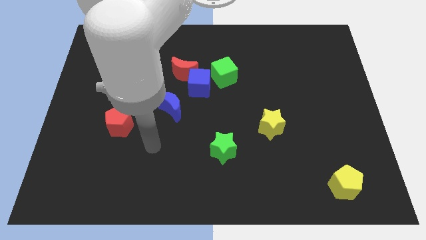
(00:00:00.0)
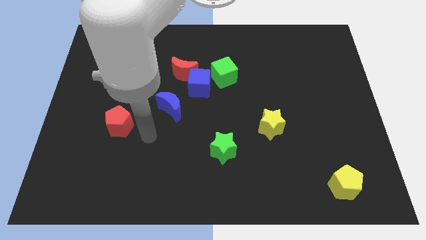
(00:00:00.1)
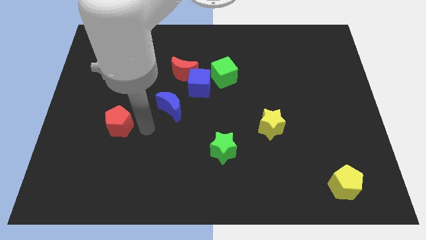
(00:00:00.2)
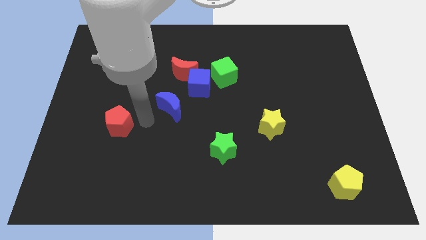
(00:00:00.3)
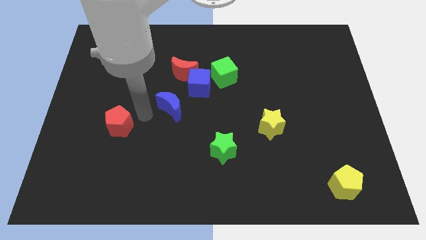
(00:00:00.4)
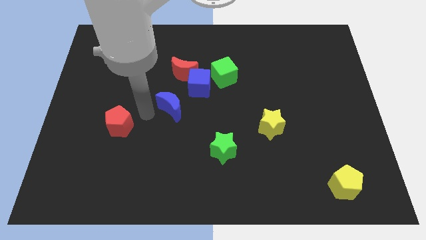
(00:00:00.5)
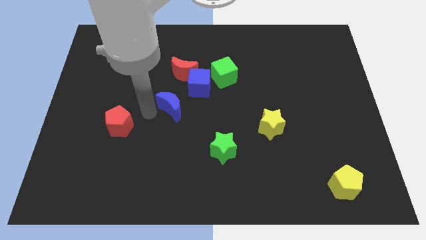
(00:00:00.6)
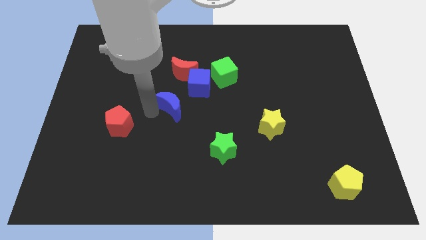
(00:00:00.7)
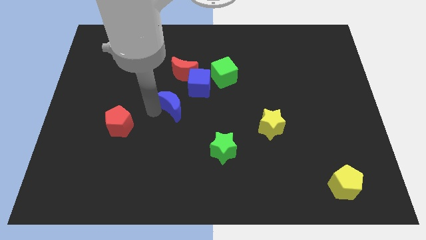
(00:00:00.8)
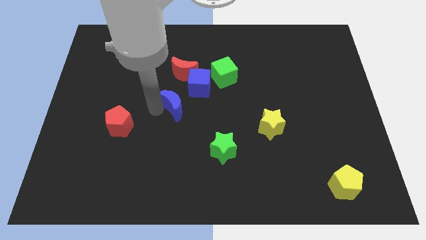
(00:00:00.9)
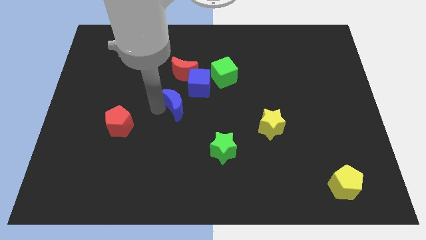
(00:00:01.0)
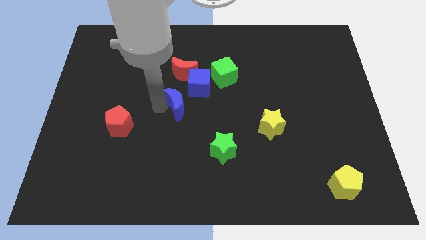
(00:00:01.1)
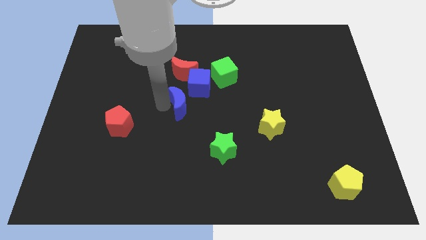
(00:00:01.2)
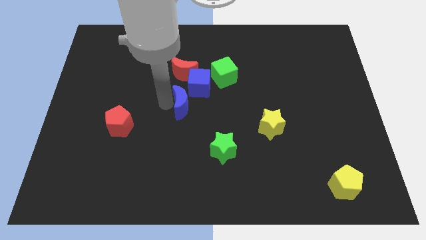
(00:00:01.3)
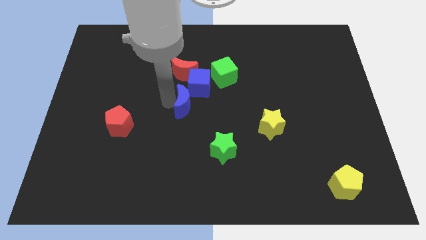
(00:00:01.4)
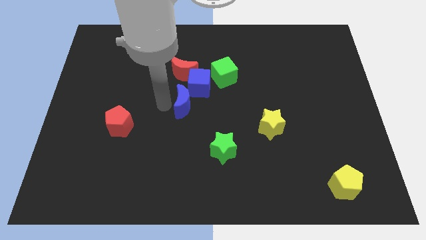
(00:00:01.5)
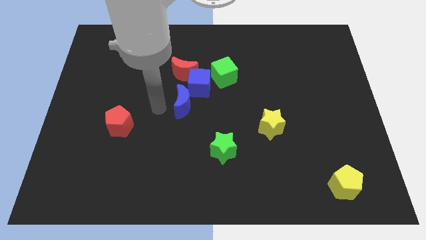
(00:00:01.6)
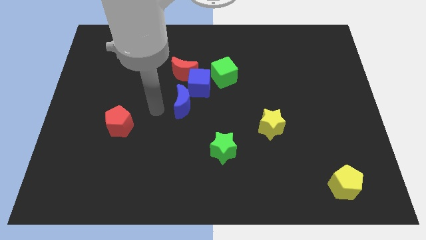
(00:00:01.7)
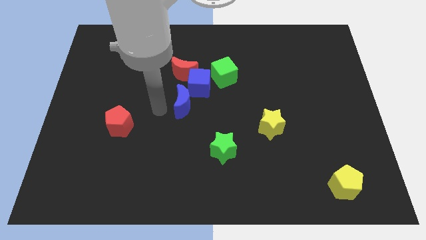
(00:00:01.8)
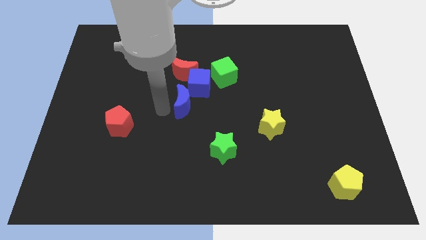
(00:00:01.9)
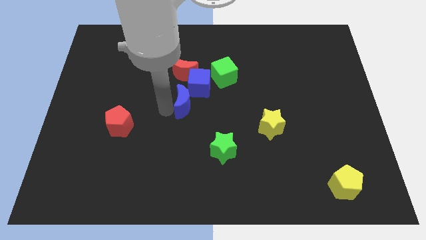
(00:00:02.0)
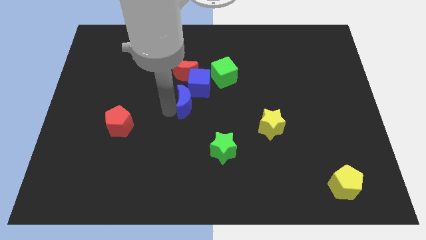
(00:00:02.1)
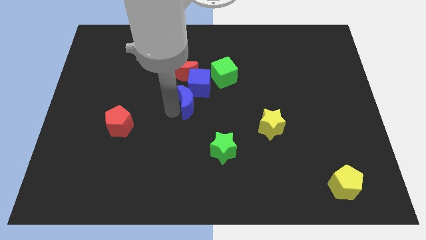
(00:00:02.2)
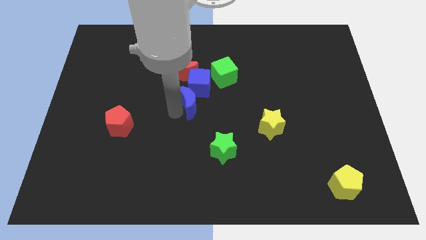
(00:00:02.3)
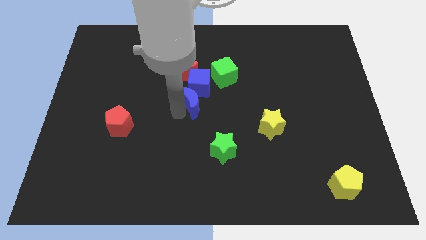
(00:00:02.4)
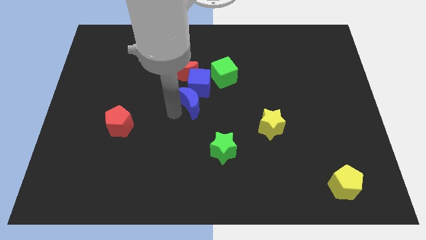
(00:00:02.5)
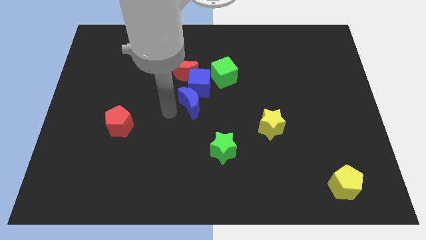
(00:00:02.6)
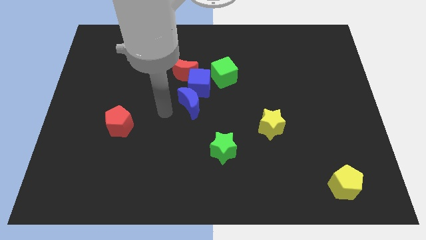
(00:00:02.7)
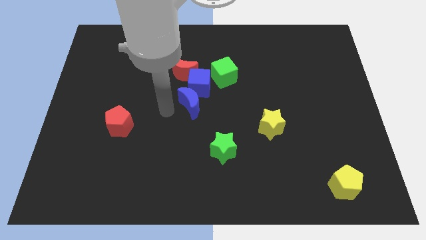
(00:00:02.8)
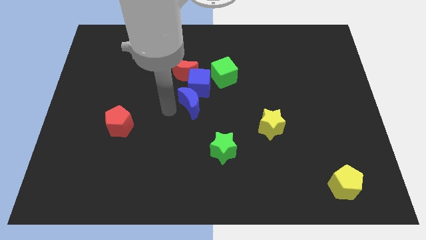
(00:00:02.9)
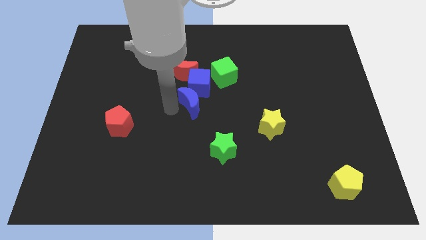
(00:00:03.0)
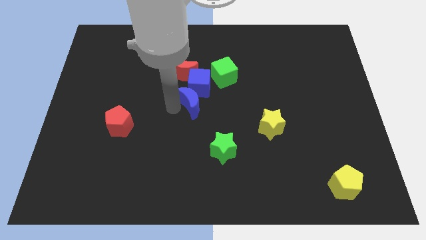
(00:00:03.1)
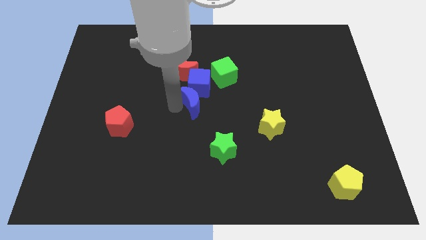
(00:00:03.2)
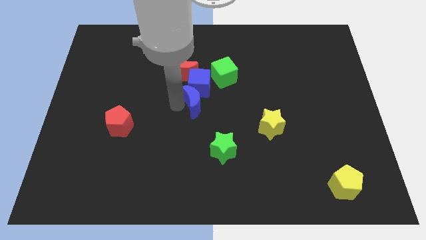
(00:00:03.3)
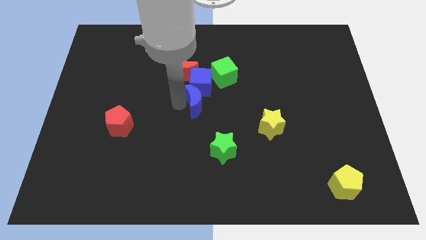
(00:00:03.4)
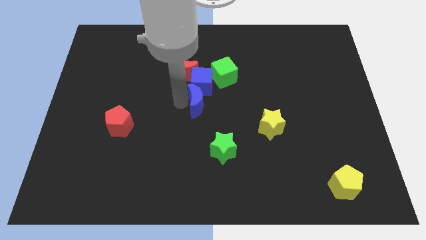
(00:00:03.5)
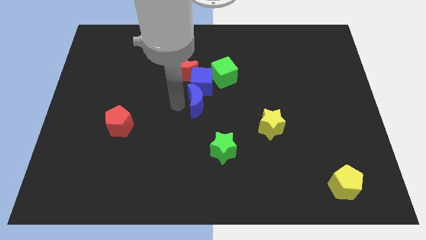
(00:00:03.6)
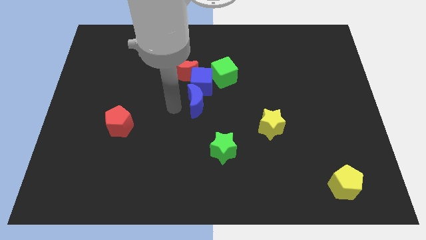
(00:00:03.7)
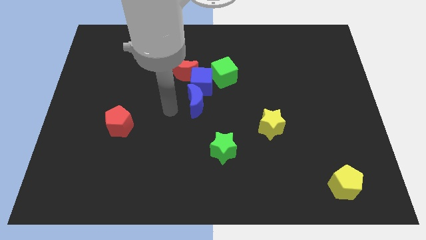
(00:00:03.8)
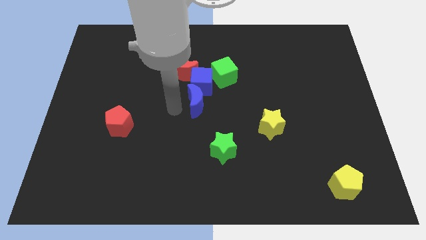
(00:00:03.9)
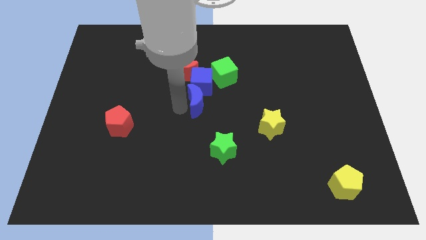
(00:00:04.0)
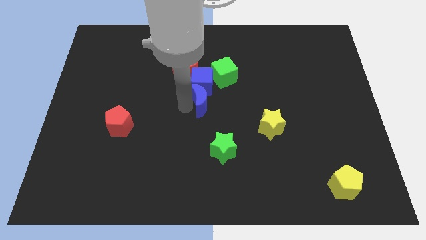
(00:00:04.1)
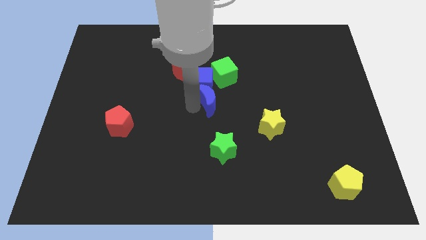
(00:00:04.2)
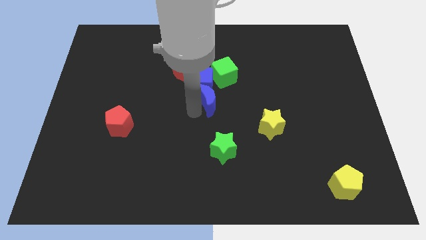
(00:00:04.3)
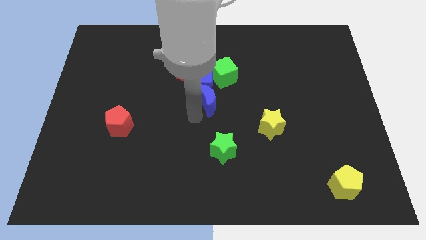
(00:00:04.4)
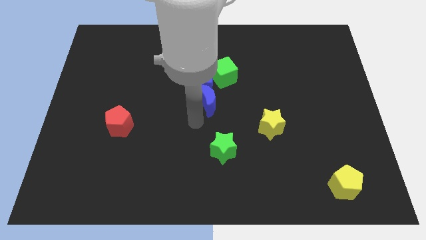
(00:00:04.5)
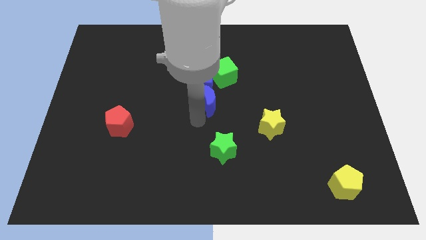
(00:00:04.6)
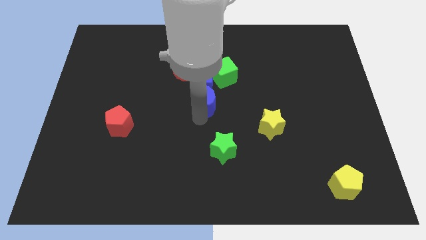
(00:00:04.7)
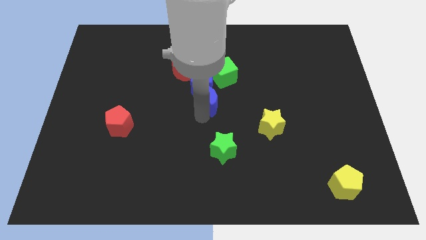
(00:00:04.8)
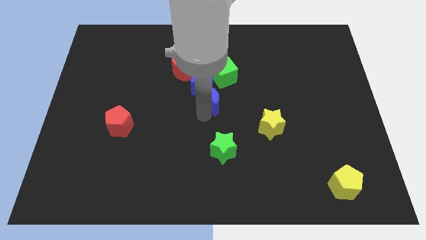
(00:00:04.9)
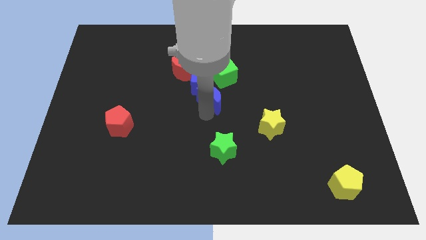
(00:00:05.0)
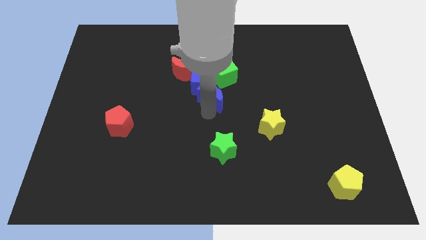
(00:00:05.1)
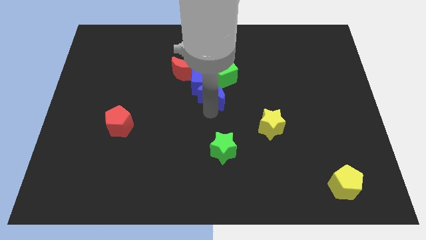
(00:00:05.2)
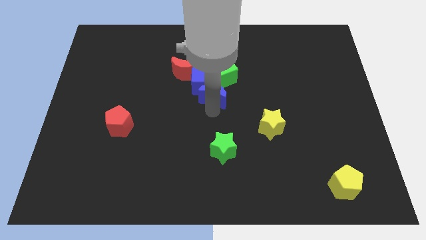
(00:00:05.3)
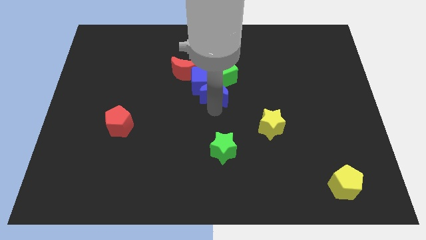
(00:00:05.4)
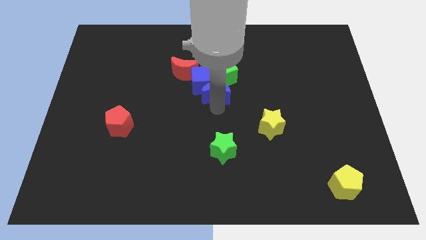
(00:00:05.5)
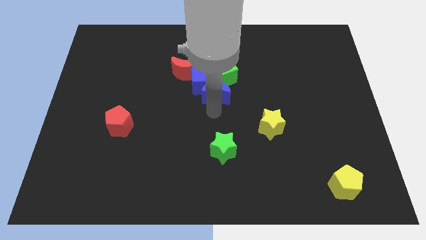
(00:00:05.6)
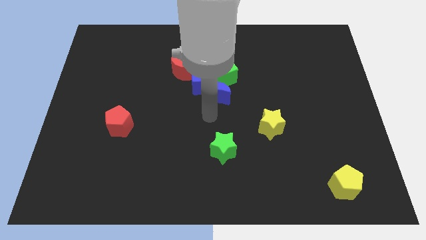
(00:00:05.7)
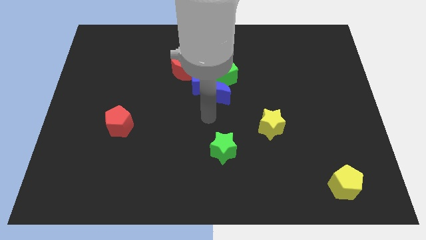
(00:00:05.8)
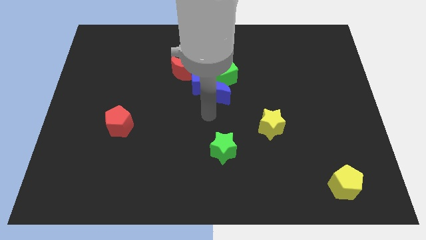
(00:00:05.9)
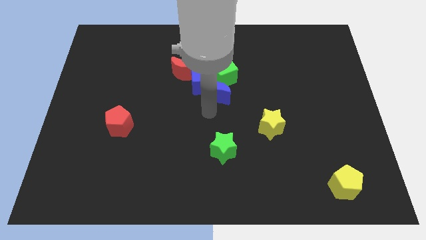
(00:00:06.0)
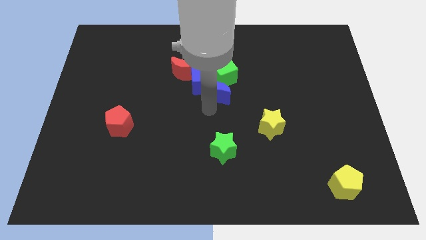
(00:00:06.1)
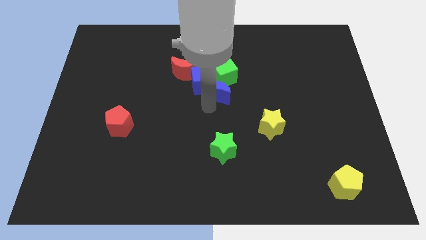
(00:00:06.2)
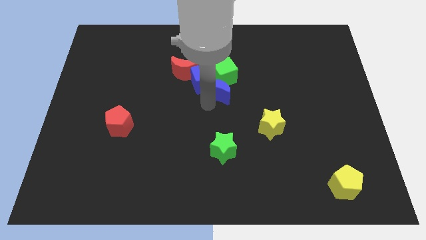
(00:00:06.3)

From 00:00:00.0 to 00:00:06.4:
push the blue moon towards the green cube

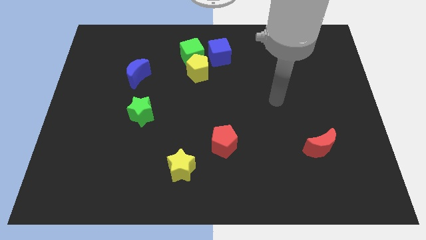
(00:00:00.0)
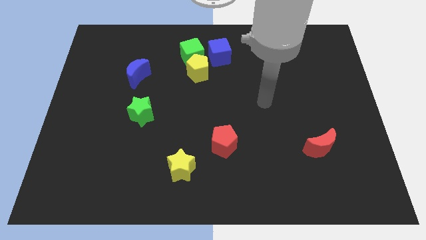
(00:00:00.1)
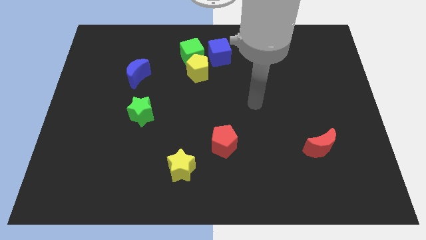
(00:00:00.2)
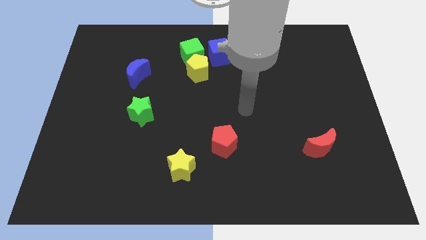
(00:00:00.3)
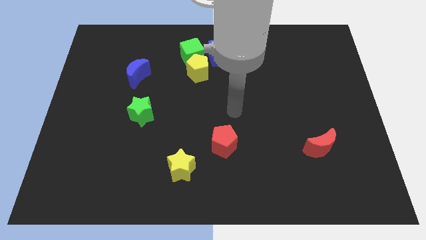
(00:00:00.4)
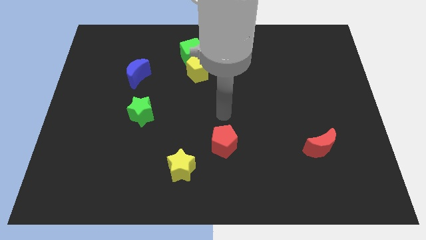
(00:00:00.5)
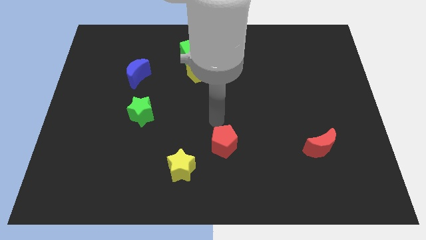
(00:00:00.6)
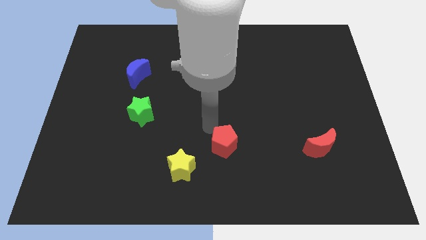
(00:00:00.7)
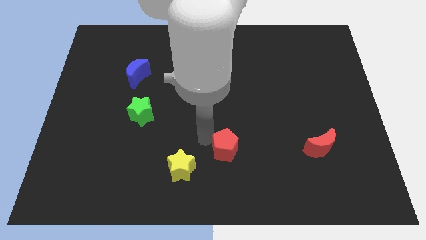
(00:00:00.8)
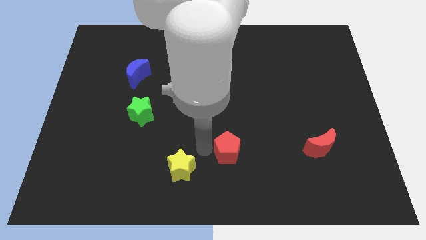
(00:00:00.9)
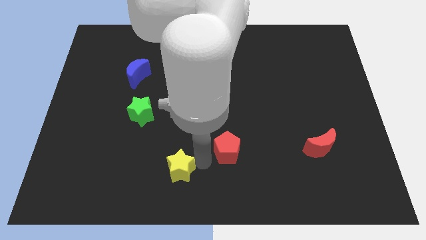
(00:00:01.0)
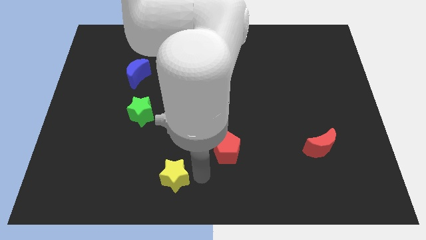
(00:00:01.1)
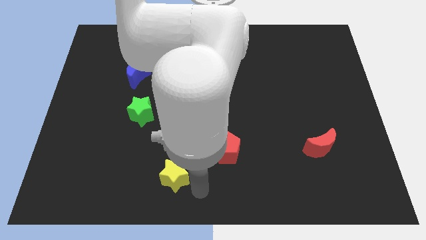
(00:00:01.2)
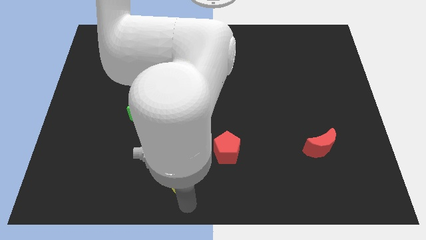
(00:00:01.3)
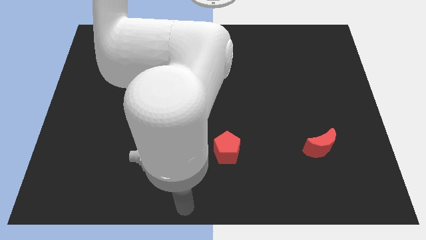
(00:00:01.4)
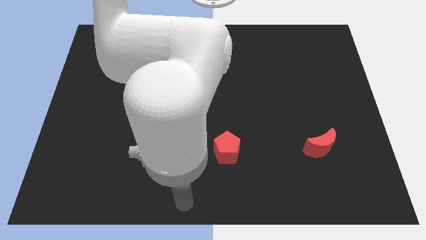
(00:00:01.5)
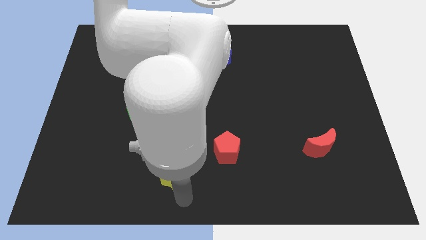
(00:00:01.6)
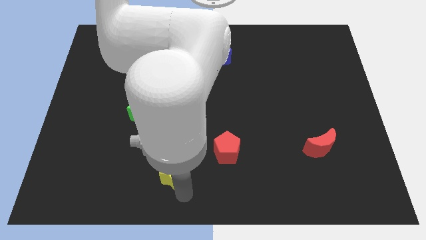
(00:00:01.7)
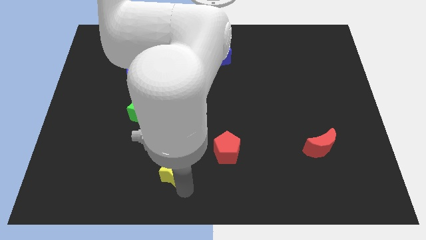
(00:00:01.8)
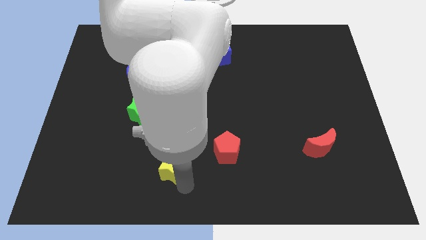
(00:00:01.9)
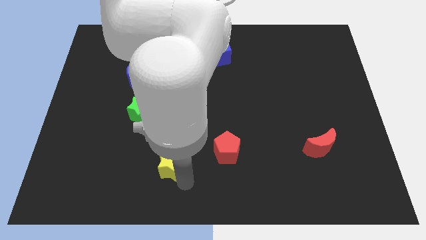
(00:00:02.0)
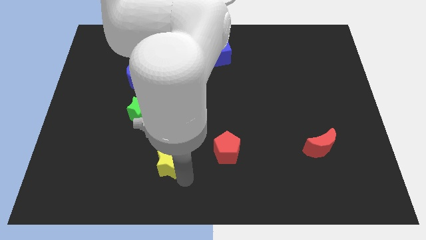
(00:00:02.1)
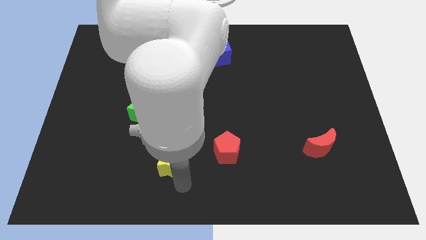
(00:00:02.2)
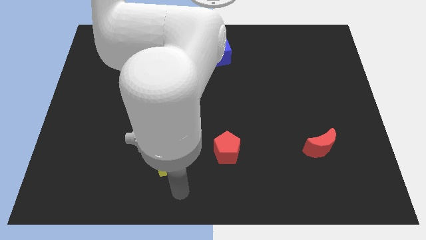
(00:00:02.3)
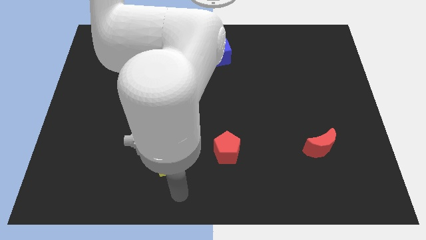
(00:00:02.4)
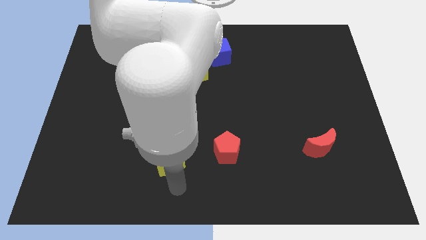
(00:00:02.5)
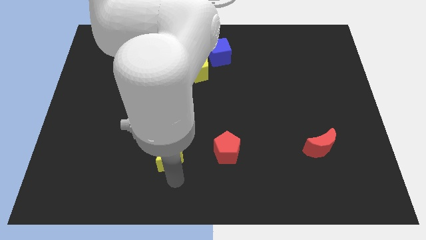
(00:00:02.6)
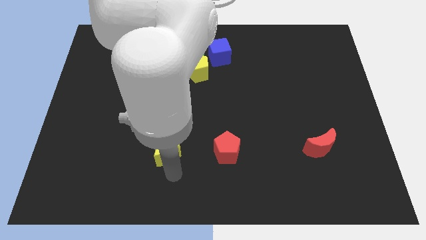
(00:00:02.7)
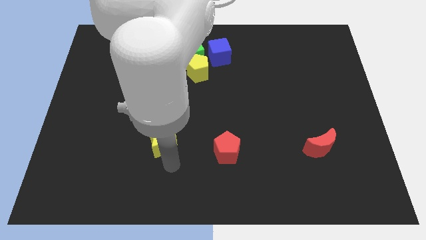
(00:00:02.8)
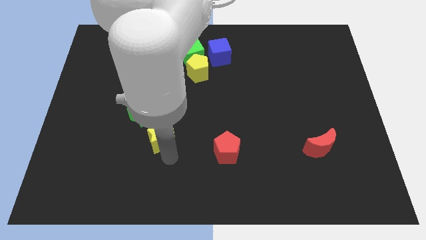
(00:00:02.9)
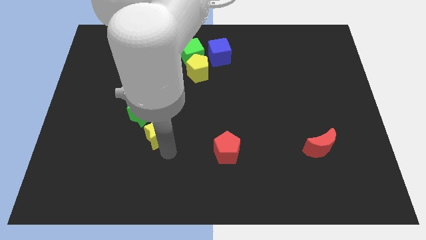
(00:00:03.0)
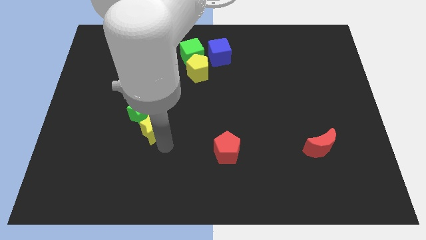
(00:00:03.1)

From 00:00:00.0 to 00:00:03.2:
put the yellow star to the green star
